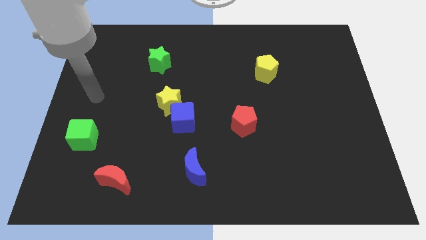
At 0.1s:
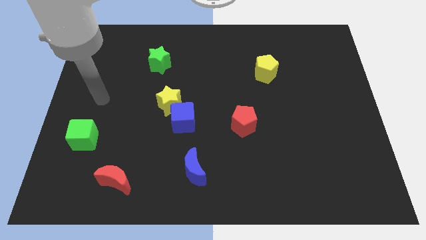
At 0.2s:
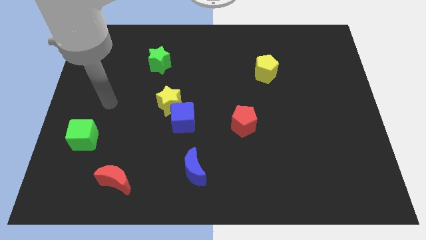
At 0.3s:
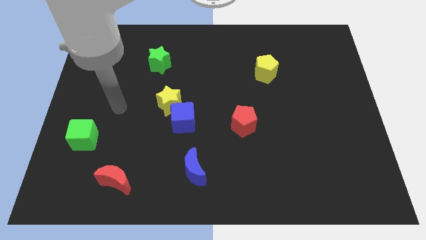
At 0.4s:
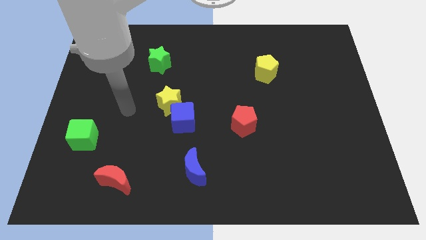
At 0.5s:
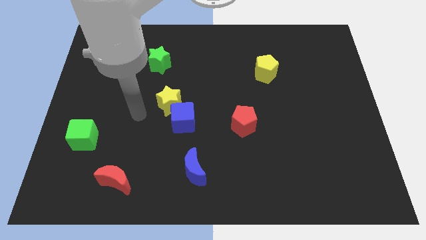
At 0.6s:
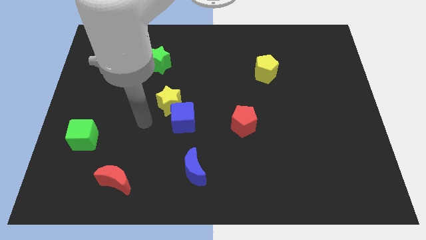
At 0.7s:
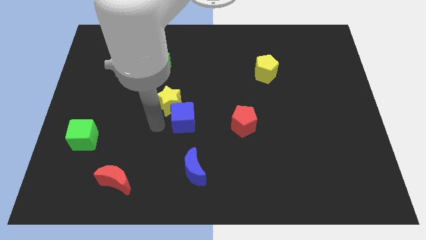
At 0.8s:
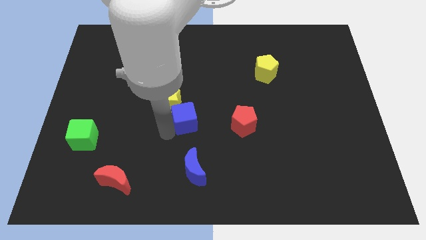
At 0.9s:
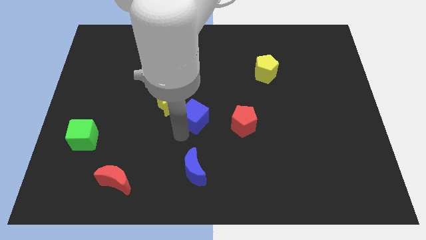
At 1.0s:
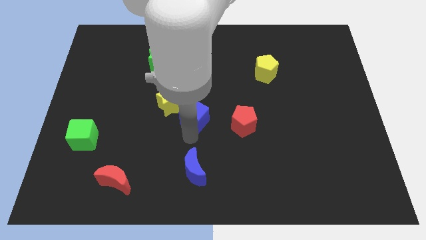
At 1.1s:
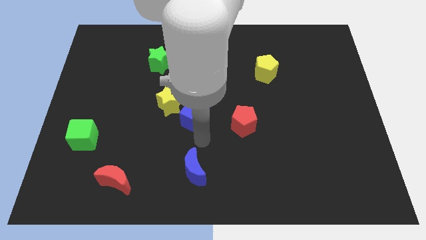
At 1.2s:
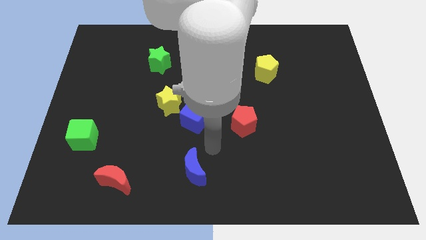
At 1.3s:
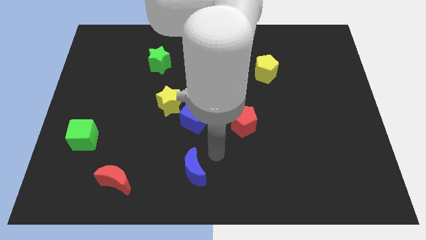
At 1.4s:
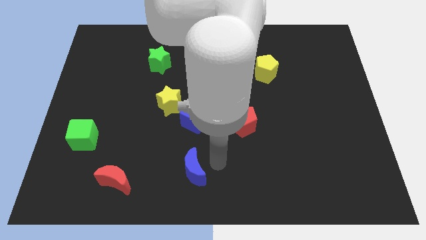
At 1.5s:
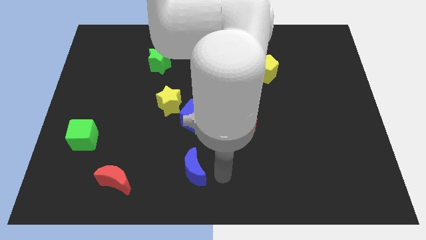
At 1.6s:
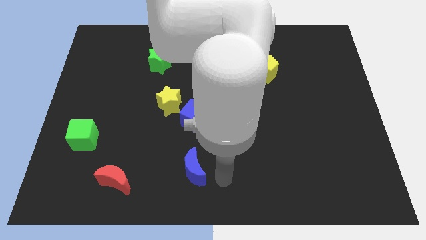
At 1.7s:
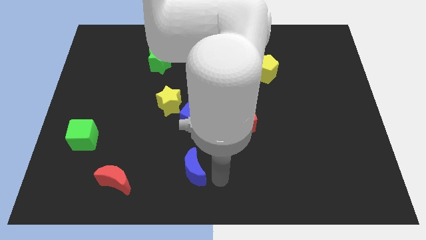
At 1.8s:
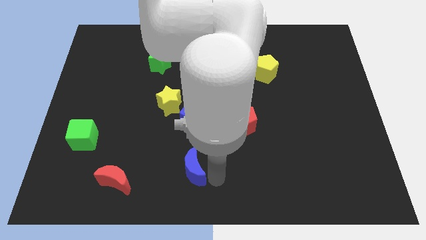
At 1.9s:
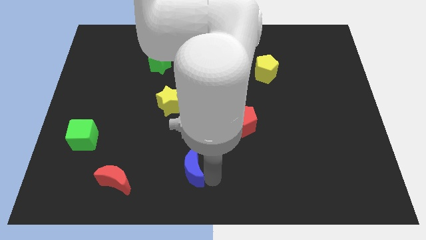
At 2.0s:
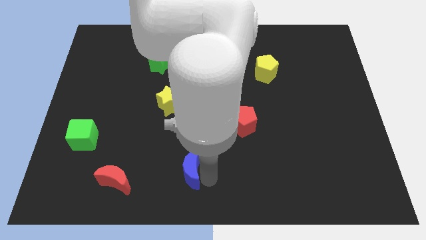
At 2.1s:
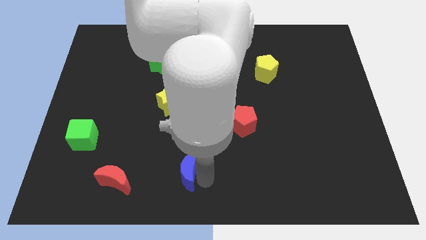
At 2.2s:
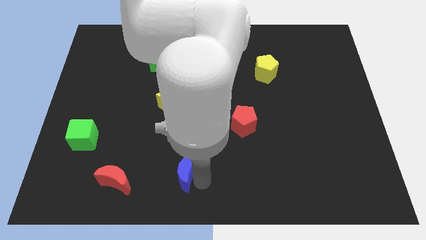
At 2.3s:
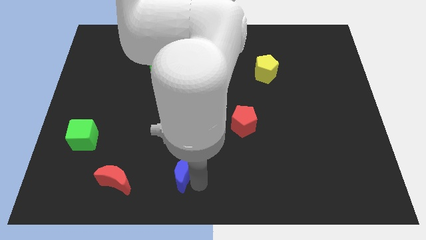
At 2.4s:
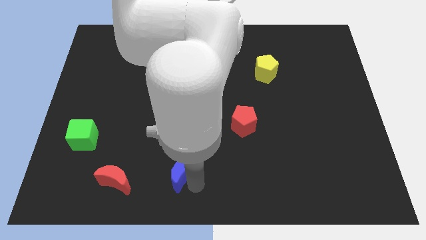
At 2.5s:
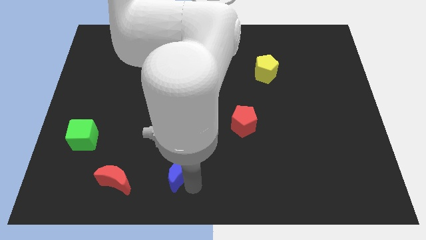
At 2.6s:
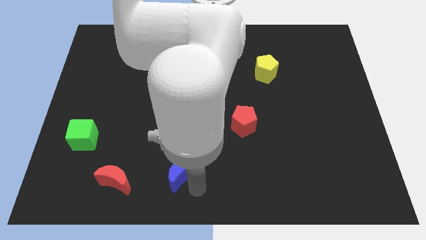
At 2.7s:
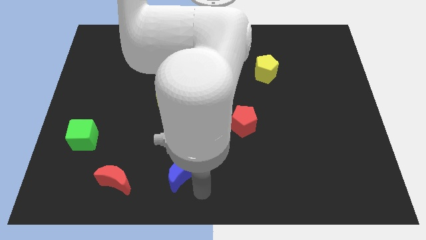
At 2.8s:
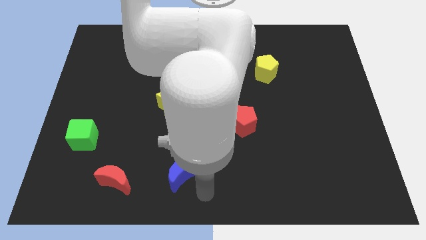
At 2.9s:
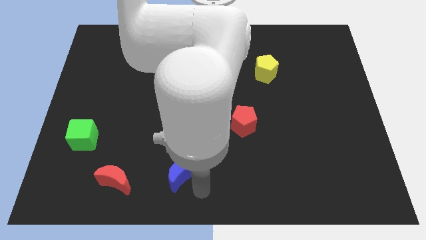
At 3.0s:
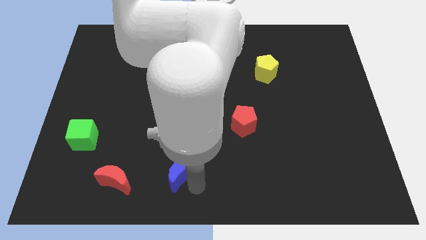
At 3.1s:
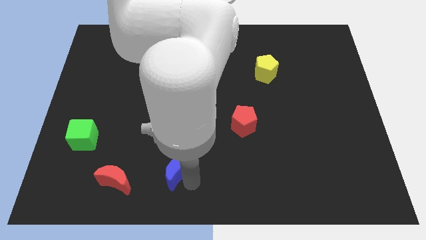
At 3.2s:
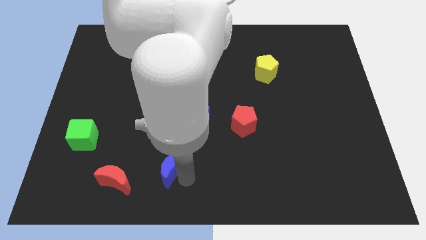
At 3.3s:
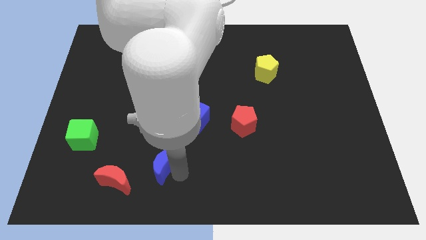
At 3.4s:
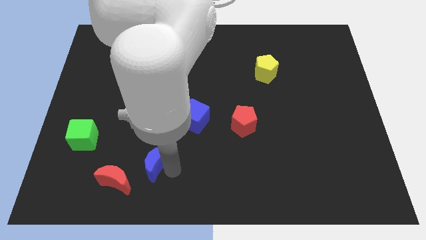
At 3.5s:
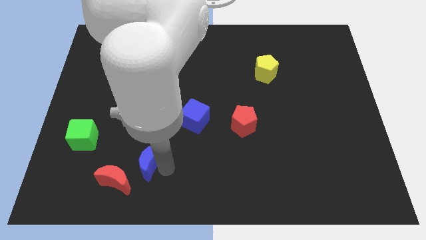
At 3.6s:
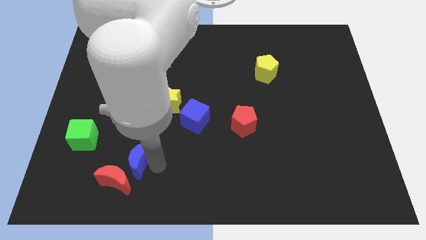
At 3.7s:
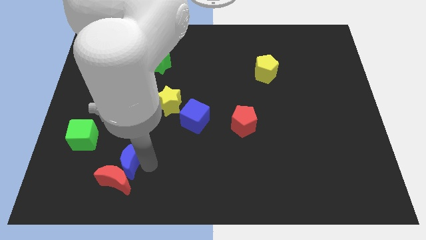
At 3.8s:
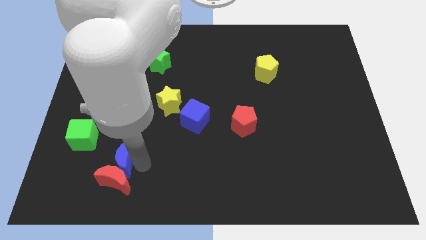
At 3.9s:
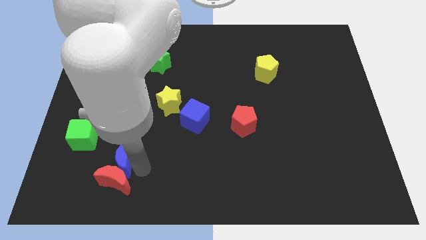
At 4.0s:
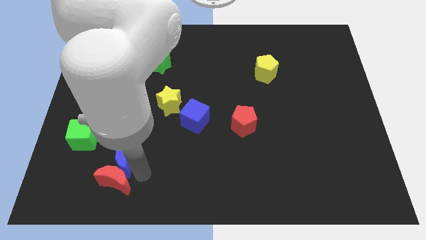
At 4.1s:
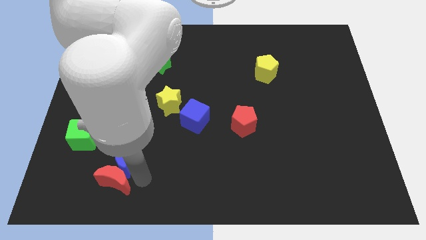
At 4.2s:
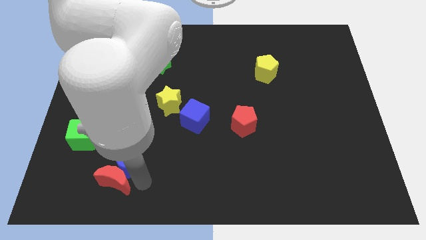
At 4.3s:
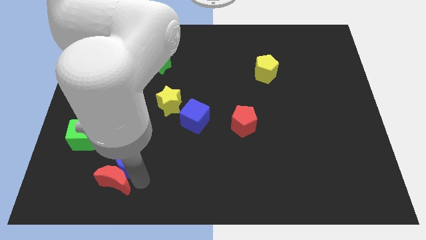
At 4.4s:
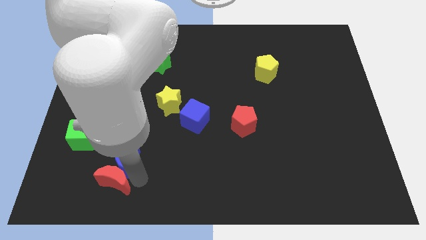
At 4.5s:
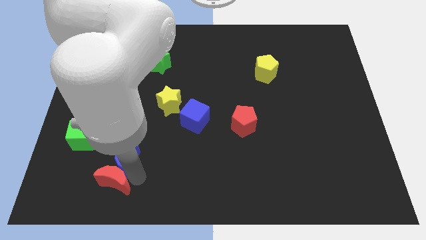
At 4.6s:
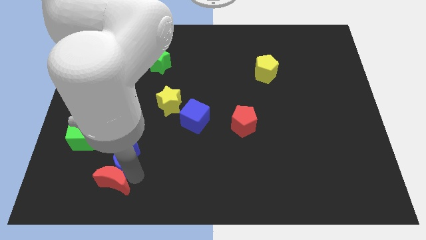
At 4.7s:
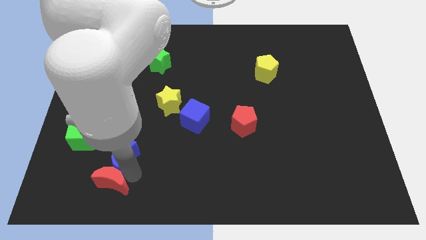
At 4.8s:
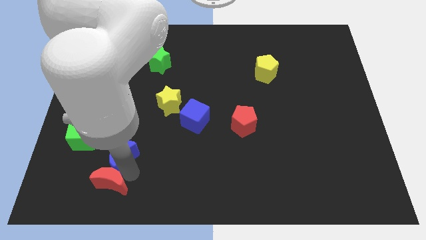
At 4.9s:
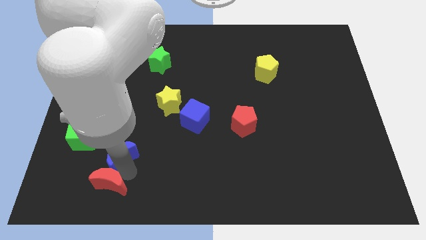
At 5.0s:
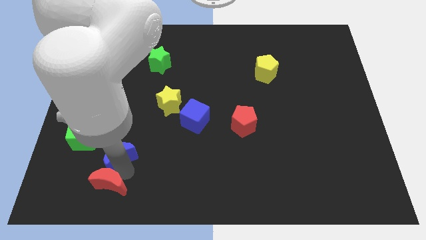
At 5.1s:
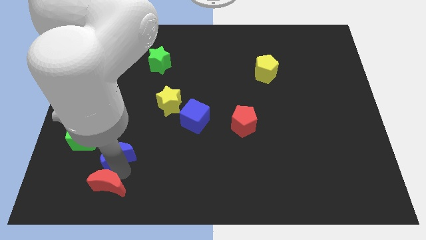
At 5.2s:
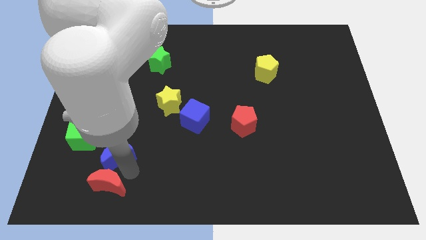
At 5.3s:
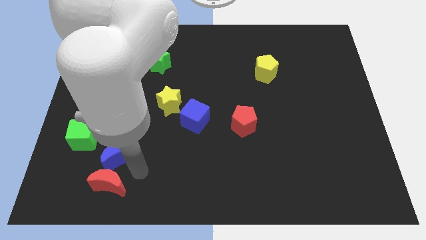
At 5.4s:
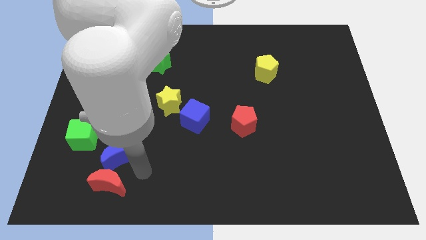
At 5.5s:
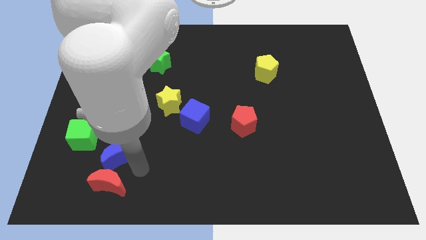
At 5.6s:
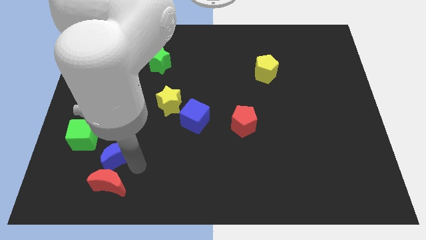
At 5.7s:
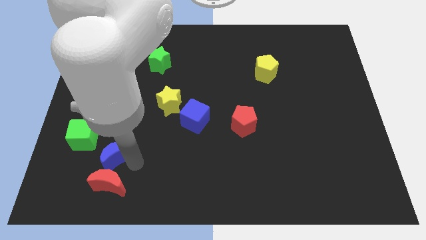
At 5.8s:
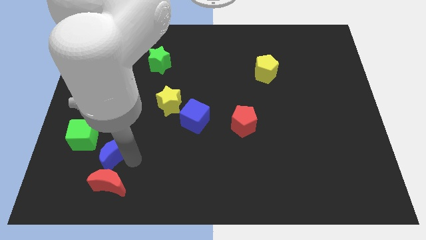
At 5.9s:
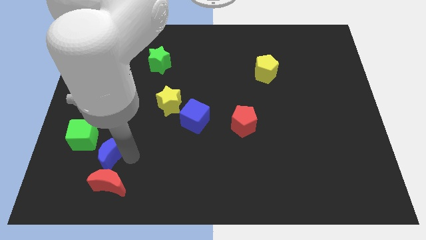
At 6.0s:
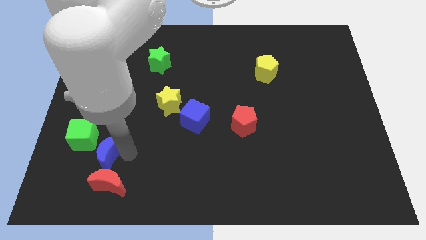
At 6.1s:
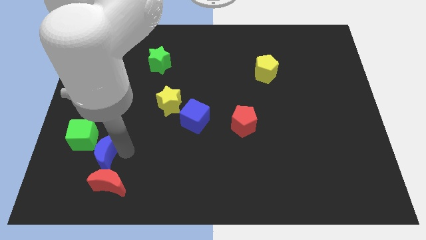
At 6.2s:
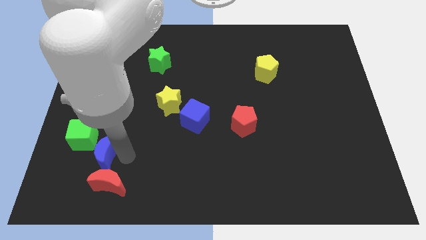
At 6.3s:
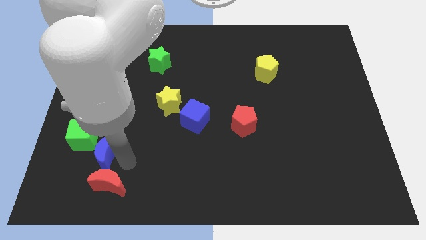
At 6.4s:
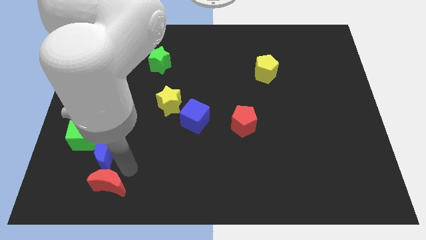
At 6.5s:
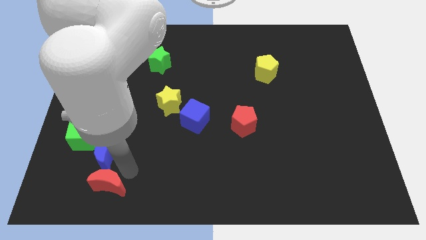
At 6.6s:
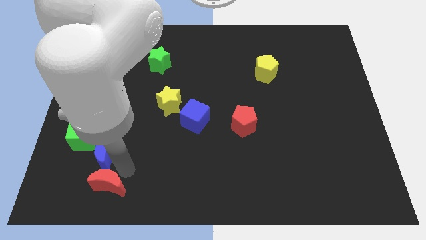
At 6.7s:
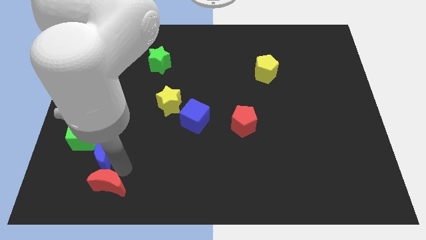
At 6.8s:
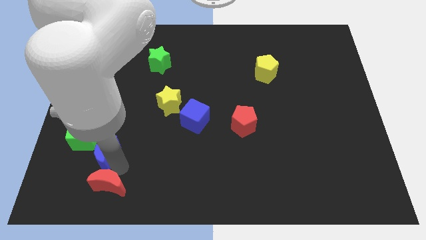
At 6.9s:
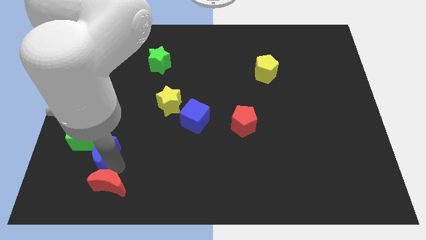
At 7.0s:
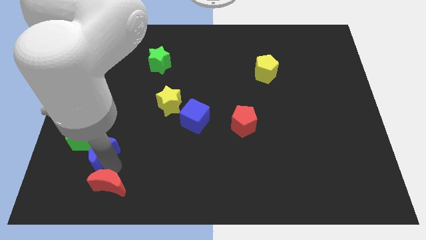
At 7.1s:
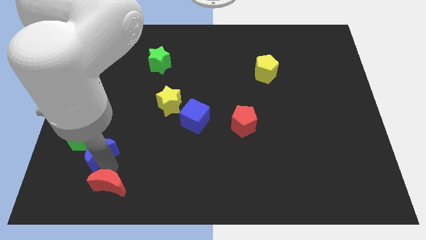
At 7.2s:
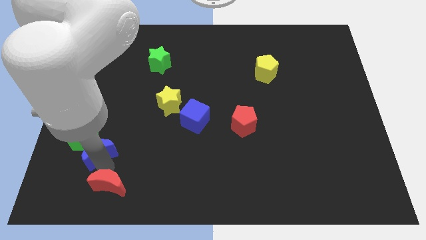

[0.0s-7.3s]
push the blue moon next to the green cube

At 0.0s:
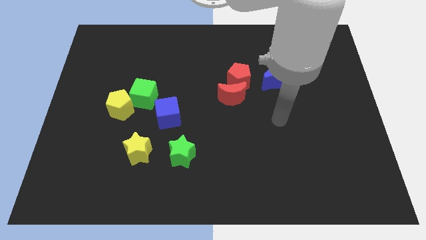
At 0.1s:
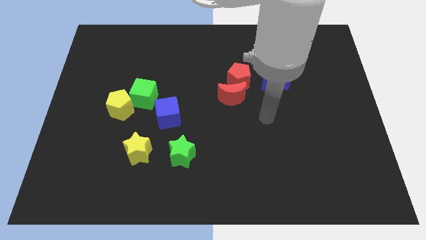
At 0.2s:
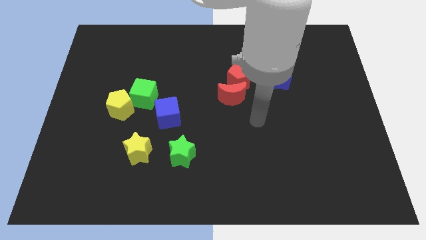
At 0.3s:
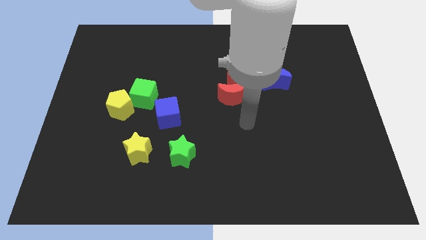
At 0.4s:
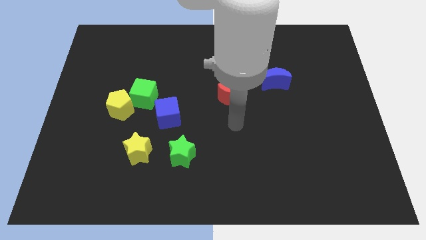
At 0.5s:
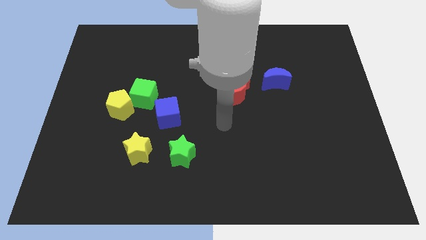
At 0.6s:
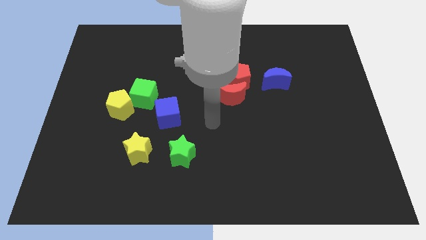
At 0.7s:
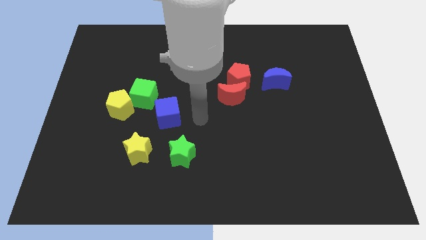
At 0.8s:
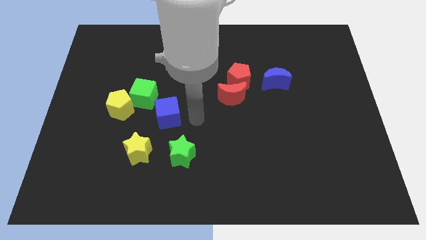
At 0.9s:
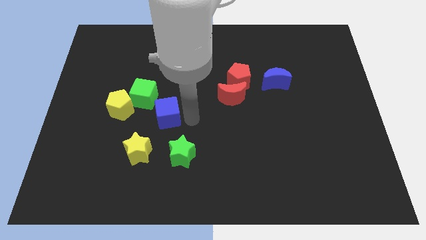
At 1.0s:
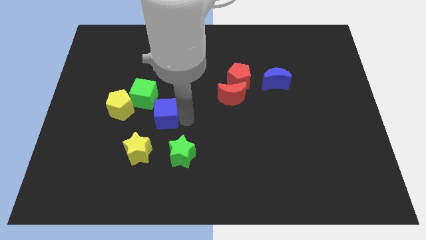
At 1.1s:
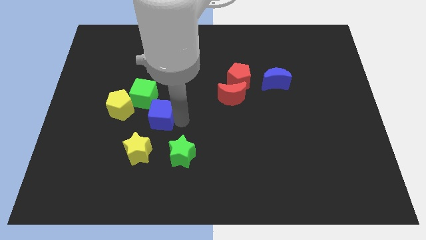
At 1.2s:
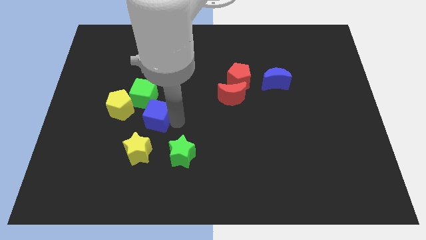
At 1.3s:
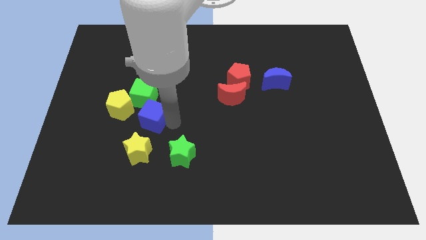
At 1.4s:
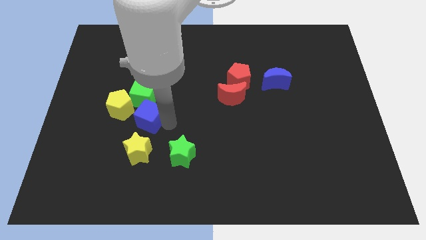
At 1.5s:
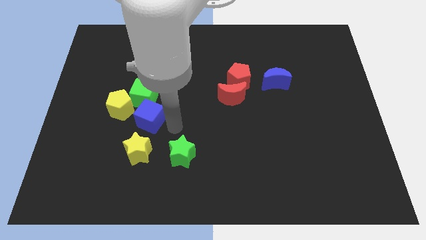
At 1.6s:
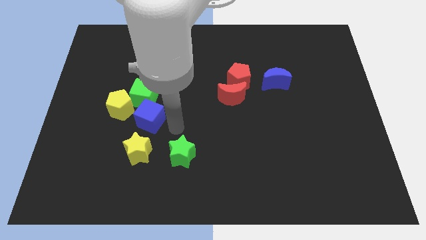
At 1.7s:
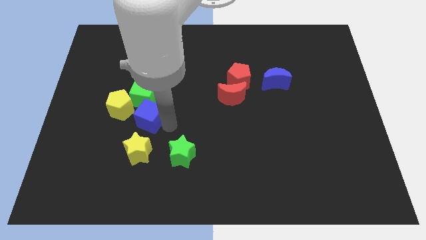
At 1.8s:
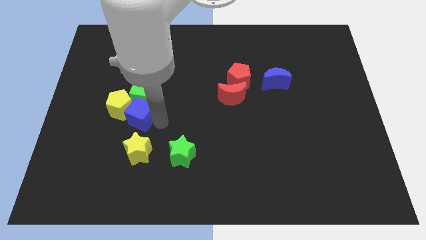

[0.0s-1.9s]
move the blue cube next to the yellow pentagon
